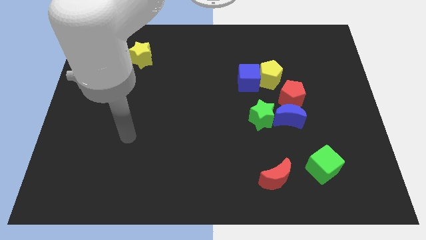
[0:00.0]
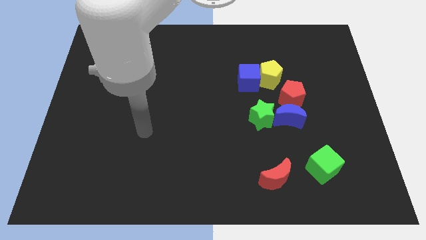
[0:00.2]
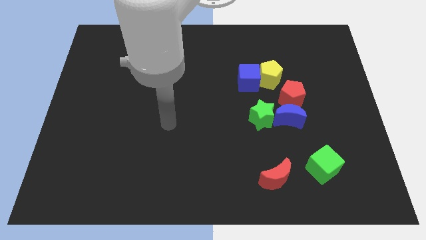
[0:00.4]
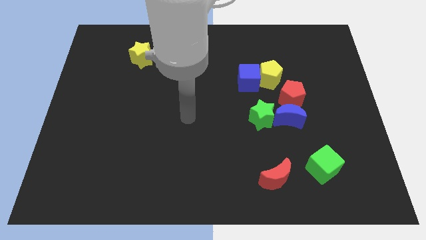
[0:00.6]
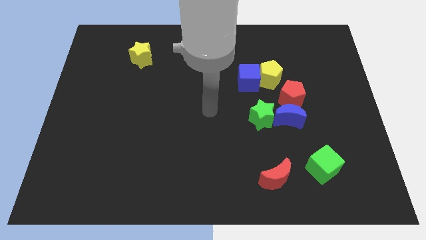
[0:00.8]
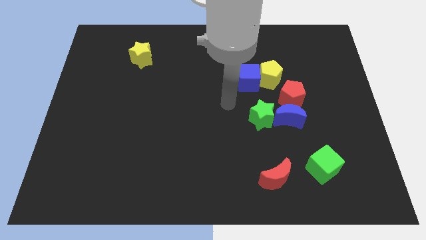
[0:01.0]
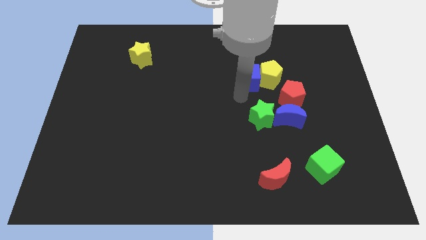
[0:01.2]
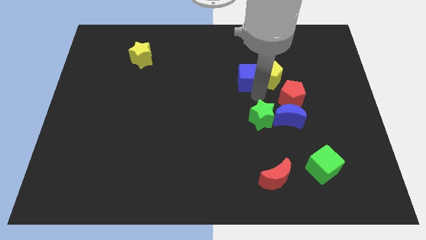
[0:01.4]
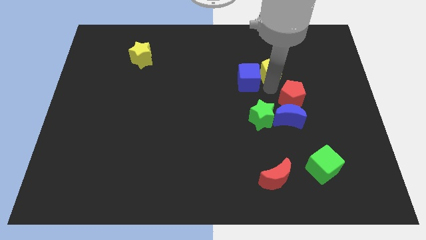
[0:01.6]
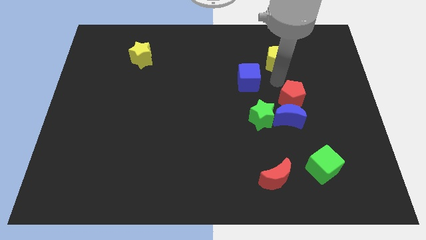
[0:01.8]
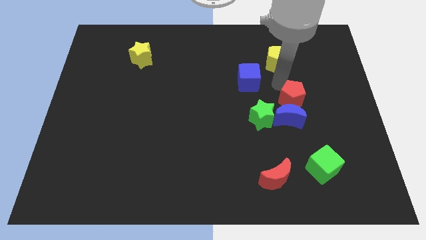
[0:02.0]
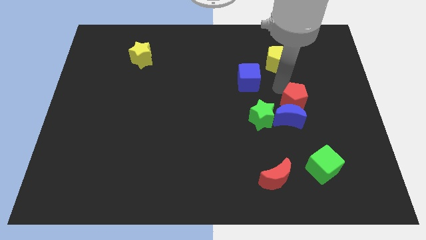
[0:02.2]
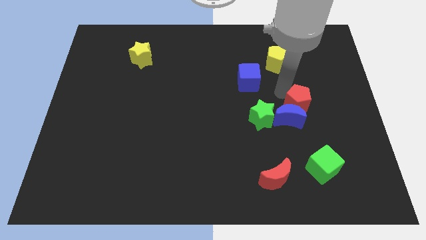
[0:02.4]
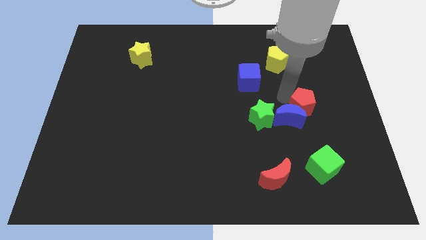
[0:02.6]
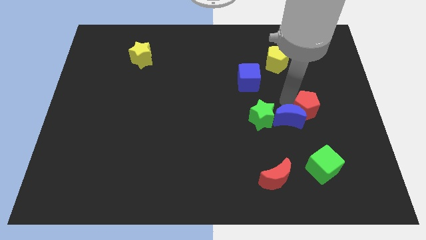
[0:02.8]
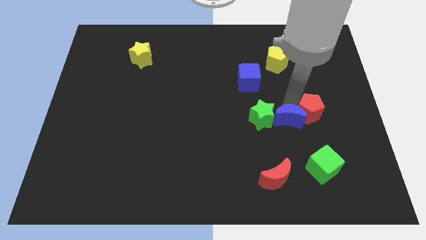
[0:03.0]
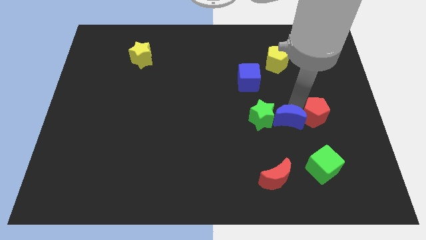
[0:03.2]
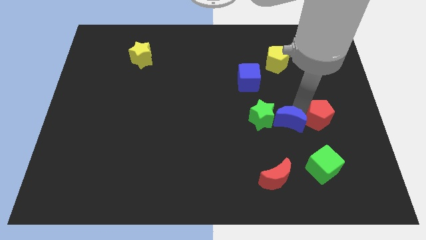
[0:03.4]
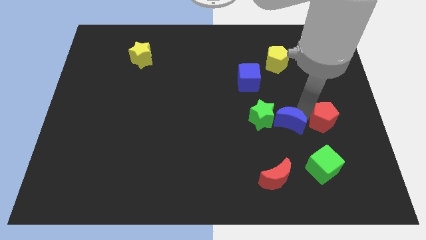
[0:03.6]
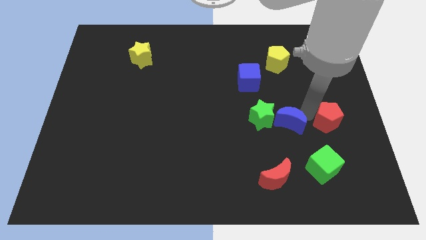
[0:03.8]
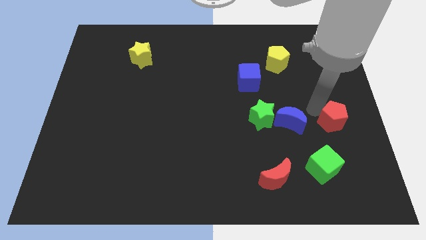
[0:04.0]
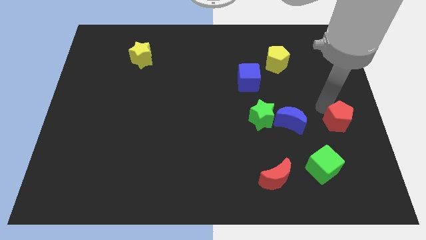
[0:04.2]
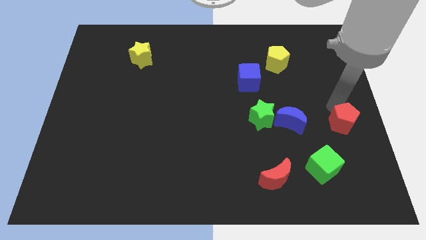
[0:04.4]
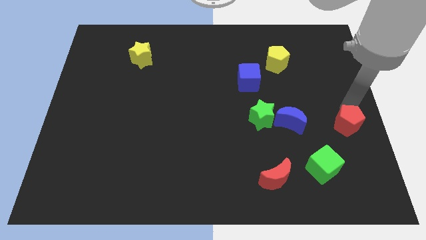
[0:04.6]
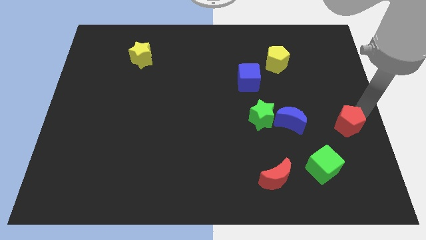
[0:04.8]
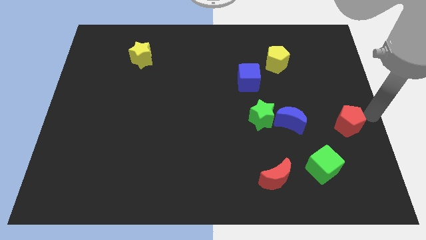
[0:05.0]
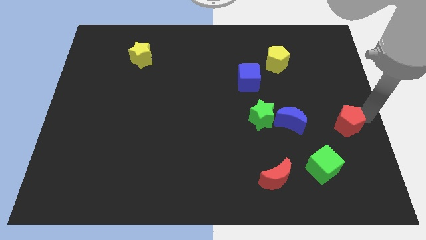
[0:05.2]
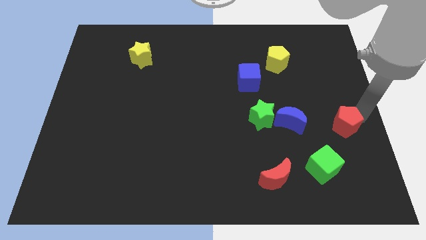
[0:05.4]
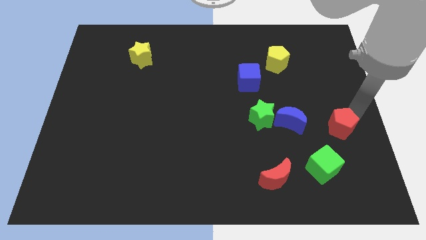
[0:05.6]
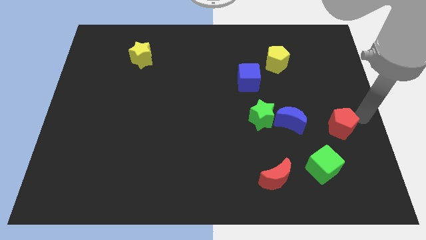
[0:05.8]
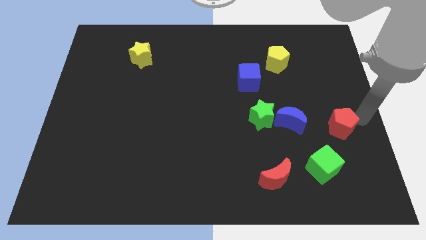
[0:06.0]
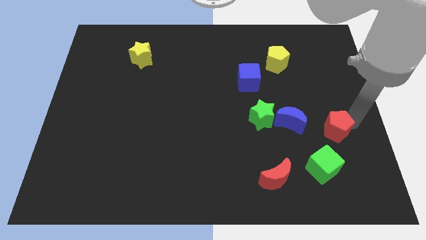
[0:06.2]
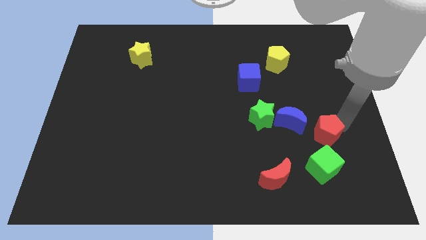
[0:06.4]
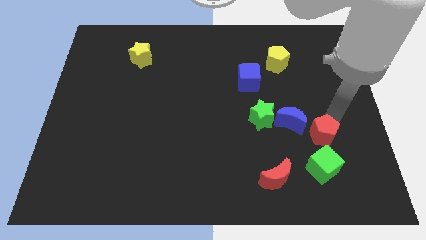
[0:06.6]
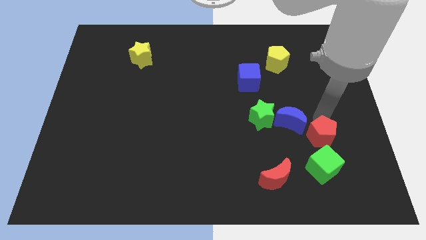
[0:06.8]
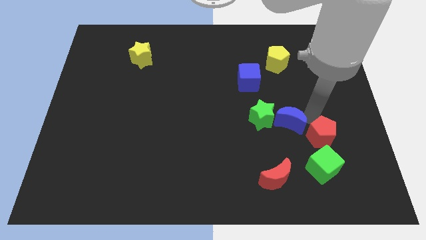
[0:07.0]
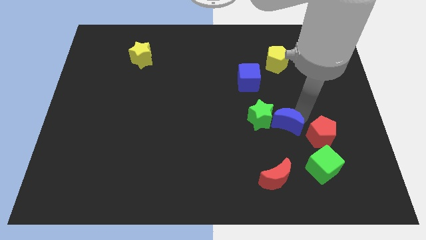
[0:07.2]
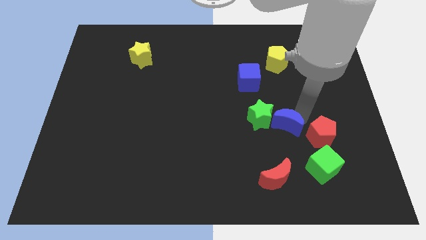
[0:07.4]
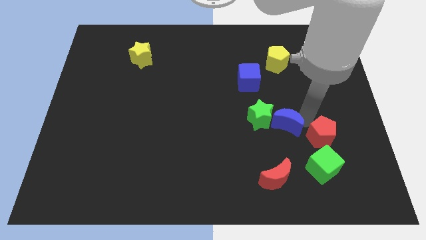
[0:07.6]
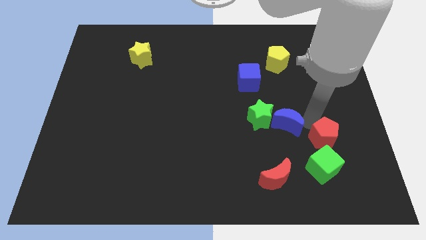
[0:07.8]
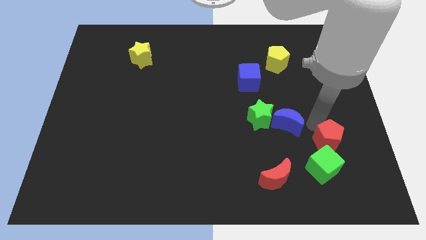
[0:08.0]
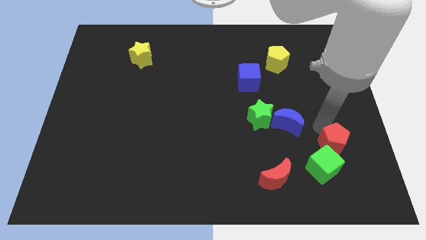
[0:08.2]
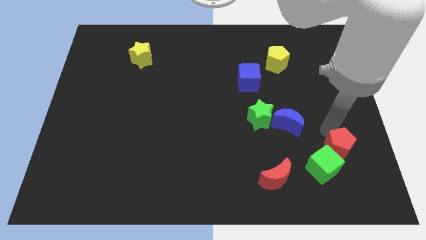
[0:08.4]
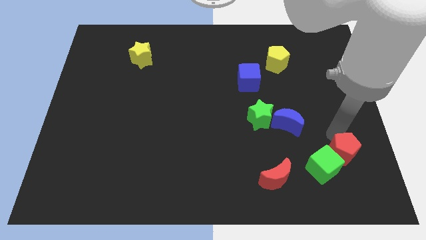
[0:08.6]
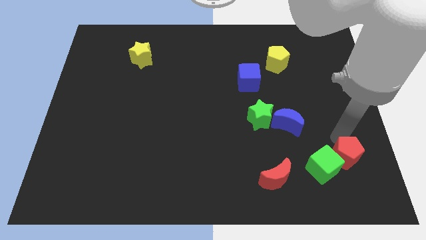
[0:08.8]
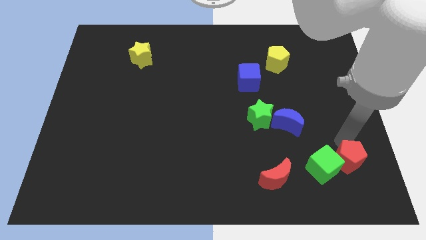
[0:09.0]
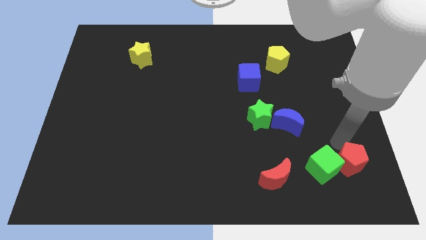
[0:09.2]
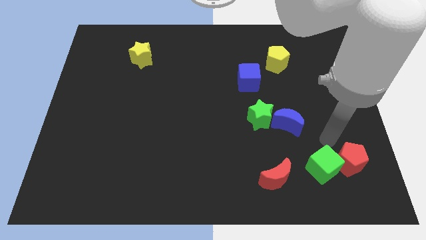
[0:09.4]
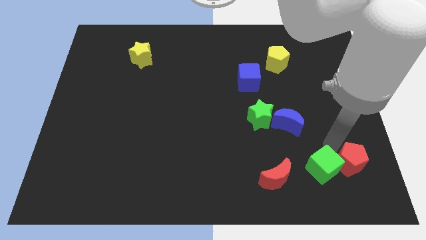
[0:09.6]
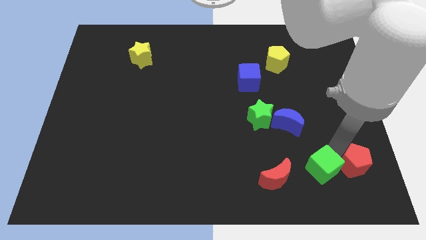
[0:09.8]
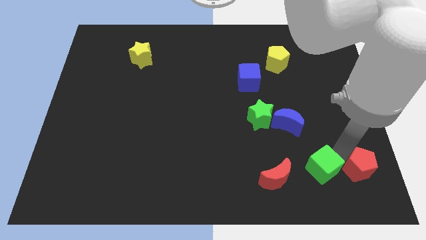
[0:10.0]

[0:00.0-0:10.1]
push the red pentagon to the lower right corner

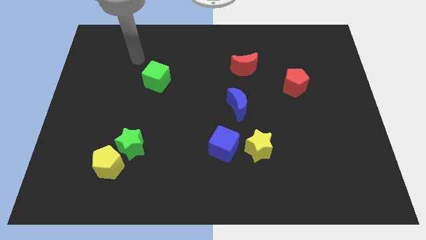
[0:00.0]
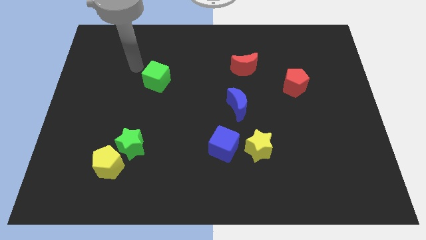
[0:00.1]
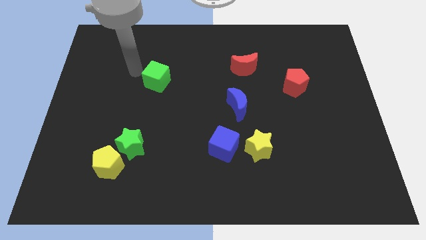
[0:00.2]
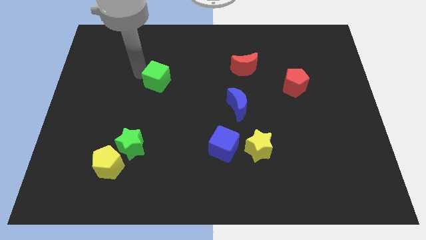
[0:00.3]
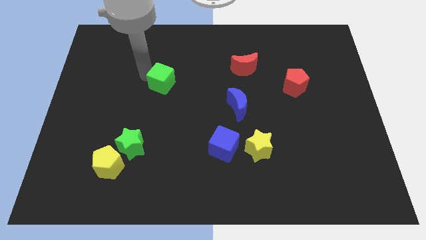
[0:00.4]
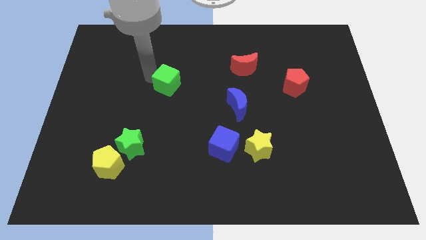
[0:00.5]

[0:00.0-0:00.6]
slide the green cube to the middle of the board

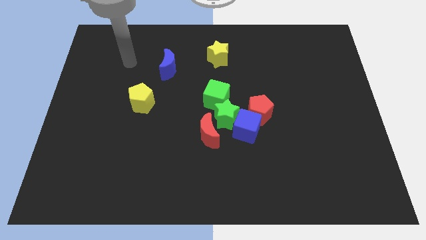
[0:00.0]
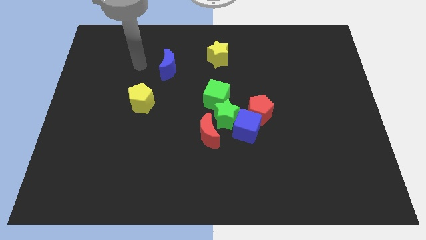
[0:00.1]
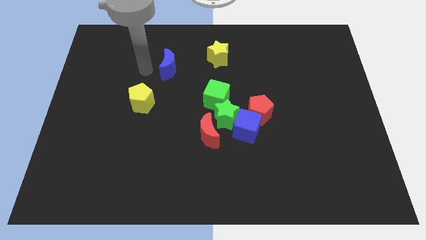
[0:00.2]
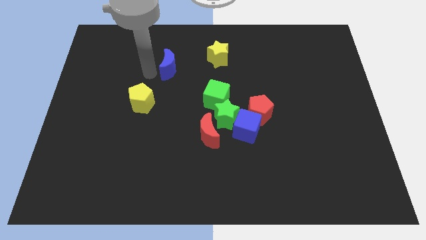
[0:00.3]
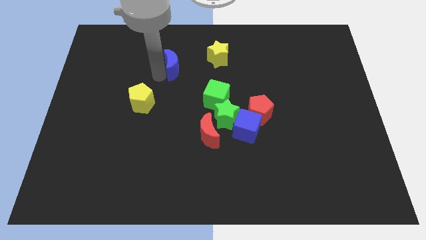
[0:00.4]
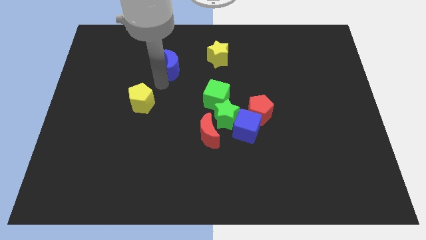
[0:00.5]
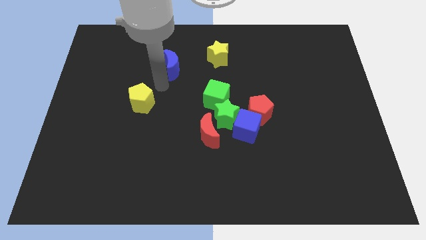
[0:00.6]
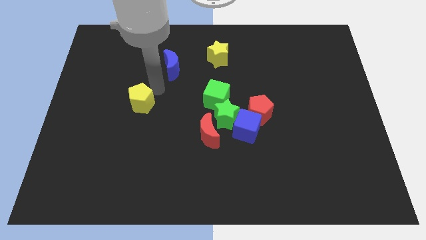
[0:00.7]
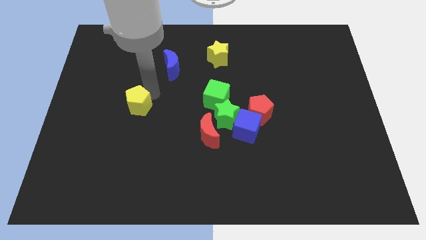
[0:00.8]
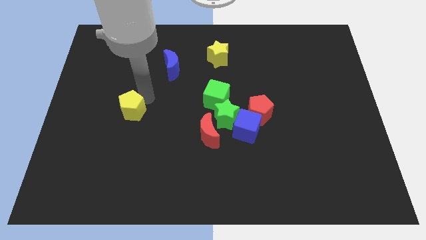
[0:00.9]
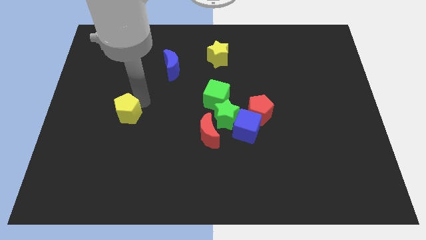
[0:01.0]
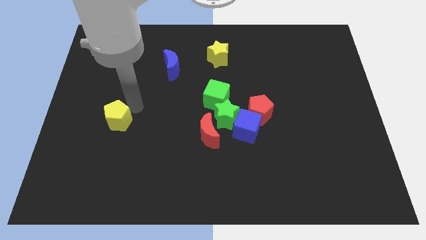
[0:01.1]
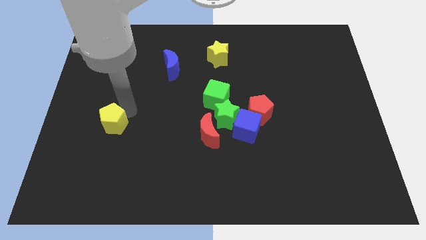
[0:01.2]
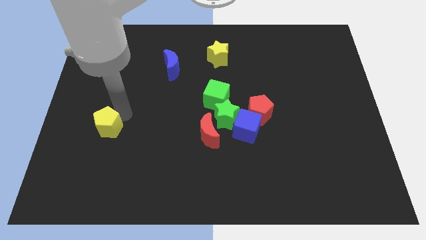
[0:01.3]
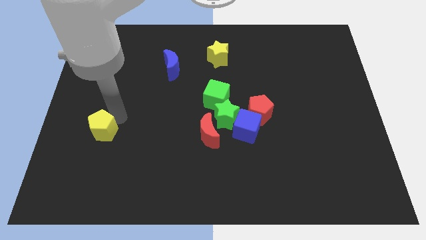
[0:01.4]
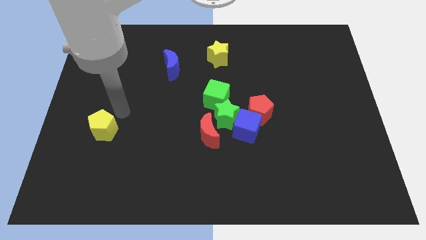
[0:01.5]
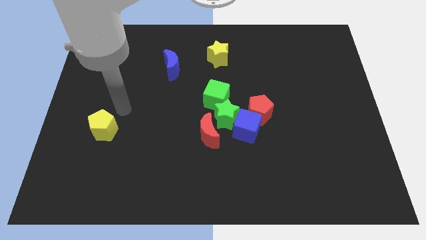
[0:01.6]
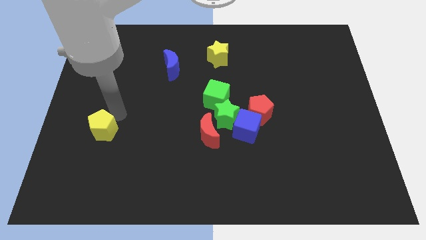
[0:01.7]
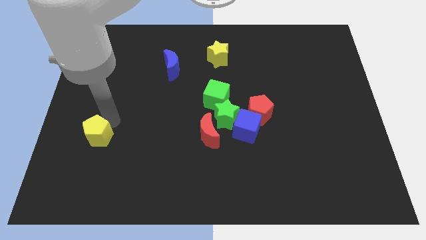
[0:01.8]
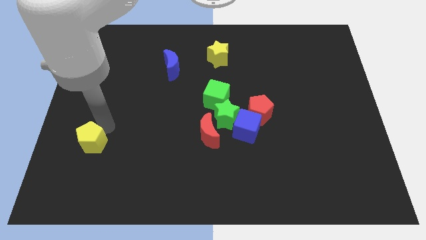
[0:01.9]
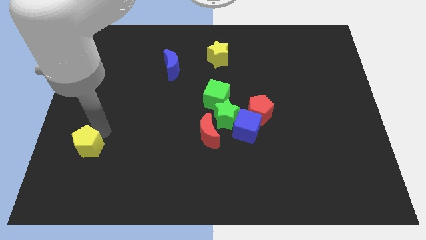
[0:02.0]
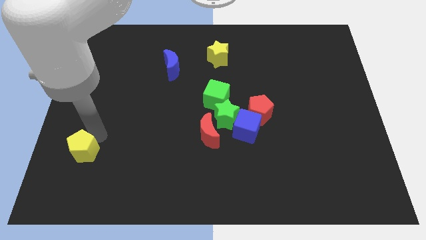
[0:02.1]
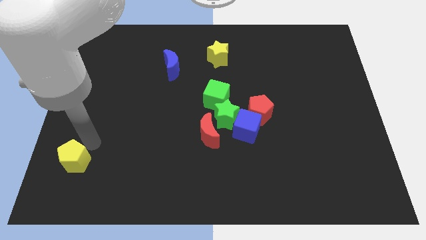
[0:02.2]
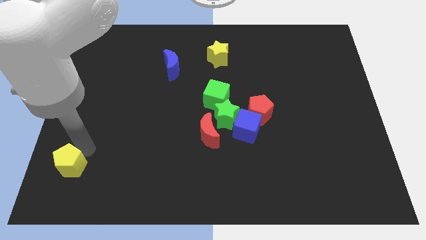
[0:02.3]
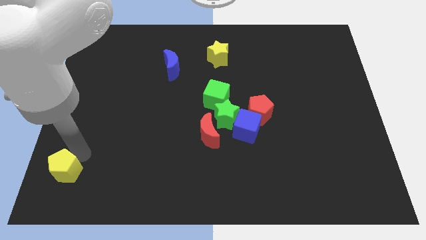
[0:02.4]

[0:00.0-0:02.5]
slide the yellow pentagon to the bottom left corner
